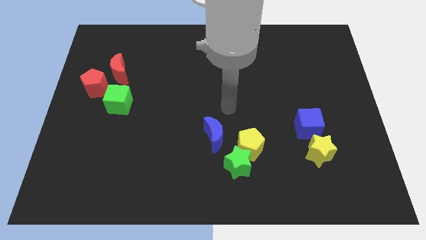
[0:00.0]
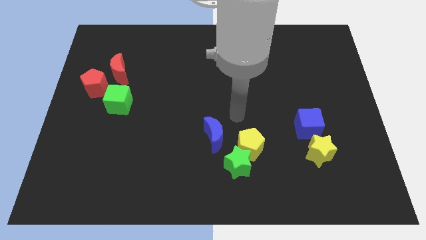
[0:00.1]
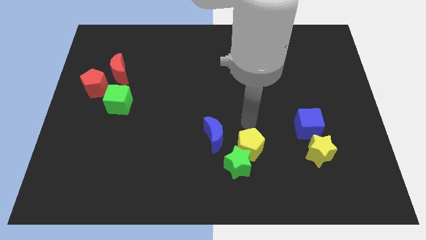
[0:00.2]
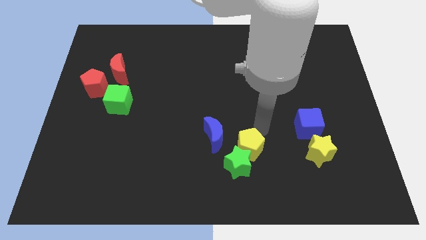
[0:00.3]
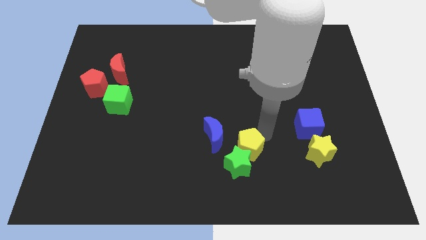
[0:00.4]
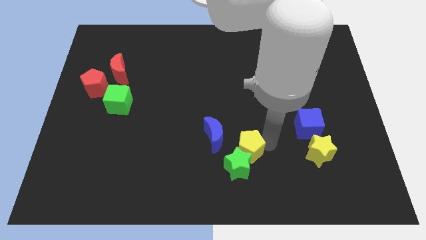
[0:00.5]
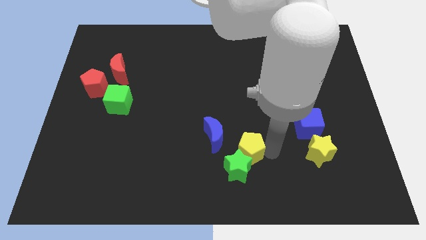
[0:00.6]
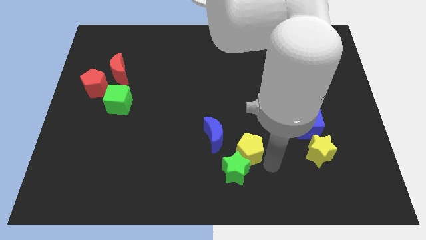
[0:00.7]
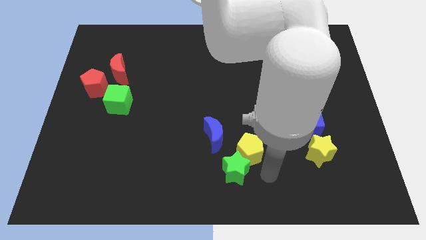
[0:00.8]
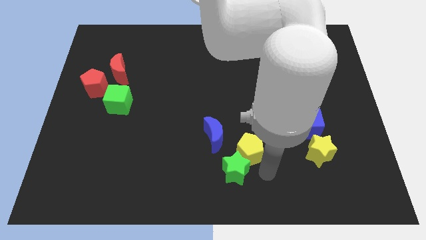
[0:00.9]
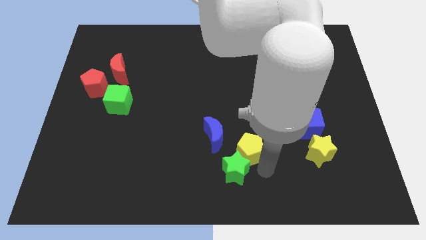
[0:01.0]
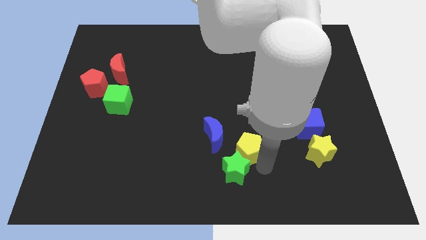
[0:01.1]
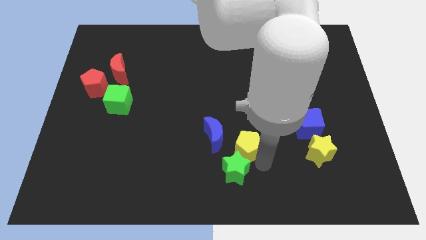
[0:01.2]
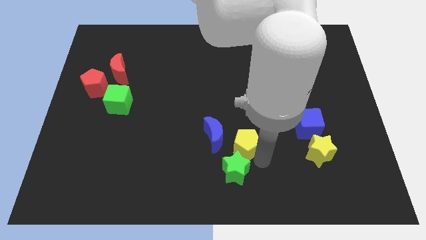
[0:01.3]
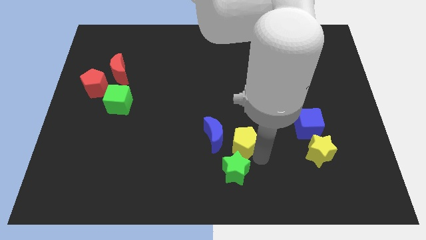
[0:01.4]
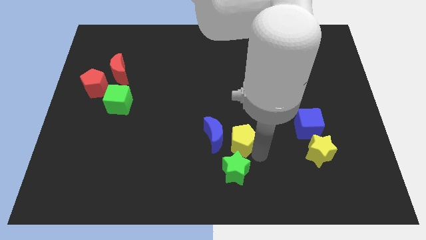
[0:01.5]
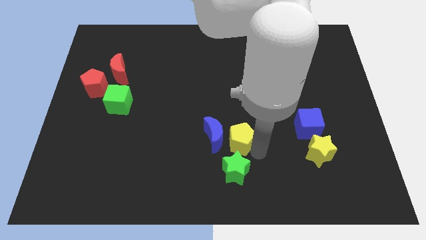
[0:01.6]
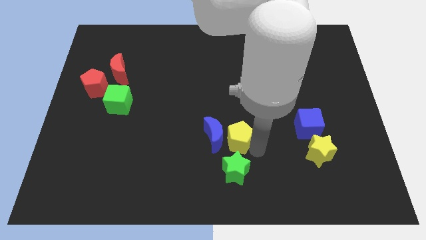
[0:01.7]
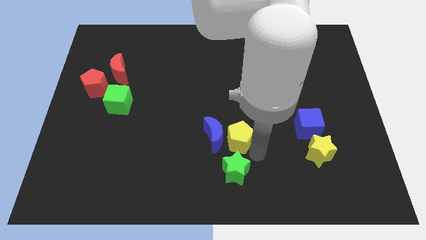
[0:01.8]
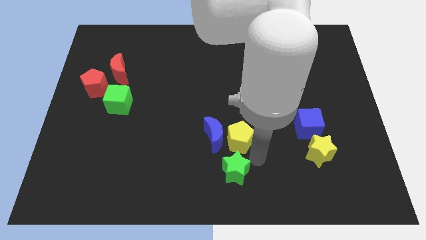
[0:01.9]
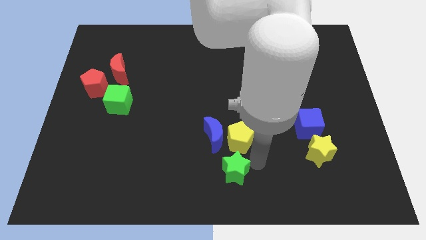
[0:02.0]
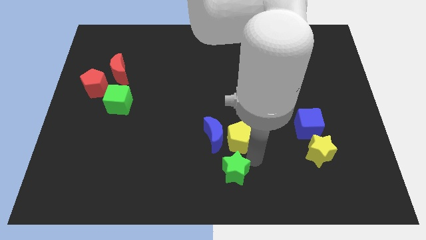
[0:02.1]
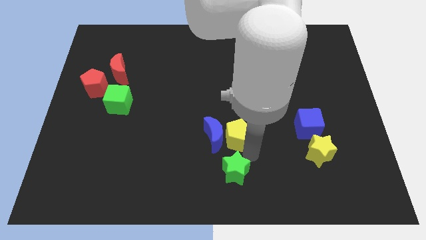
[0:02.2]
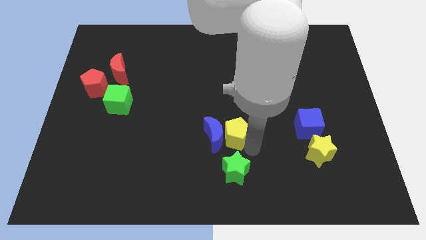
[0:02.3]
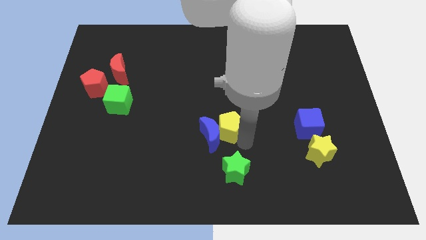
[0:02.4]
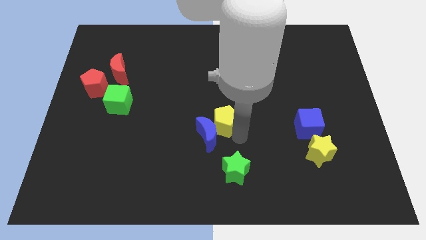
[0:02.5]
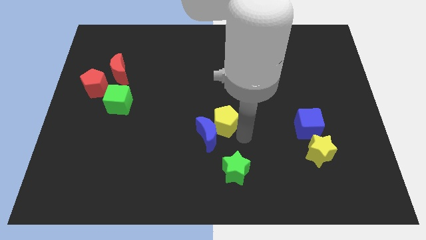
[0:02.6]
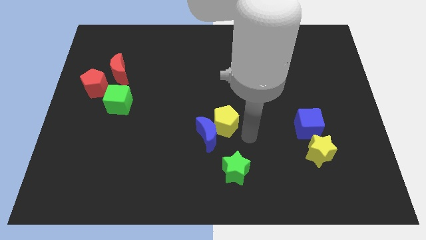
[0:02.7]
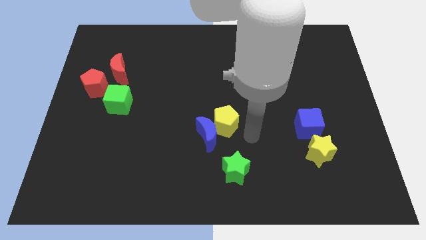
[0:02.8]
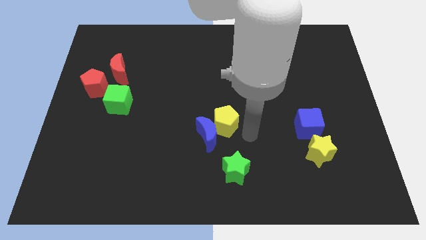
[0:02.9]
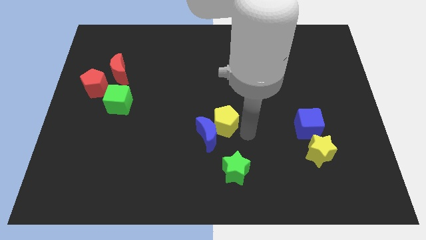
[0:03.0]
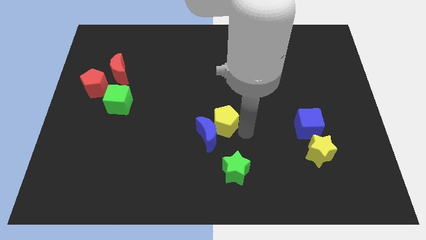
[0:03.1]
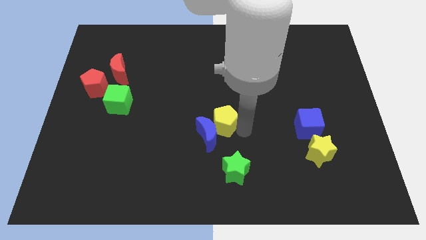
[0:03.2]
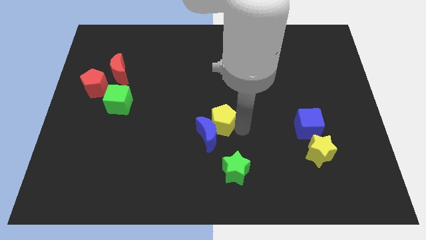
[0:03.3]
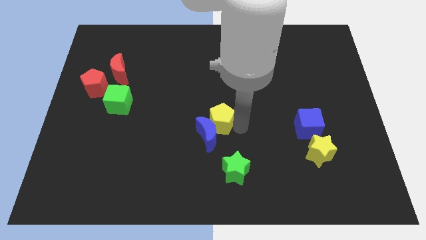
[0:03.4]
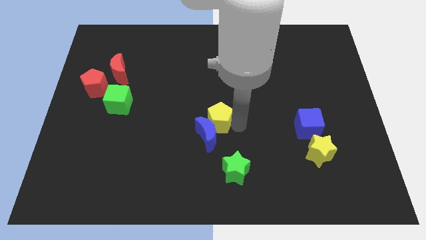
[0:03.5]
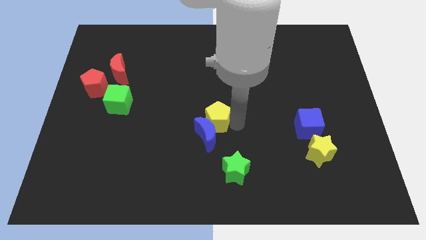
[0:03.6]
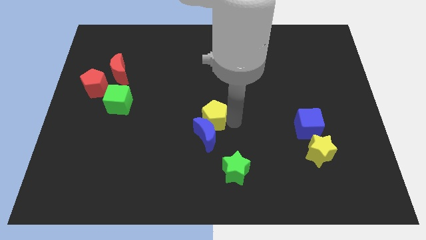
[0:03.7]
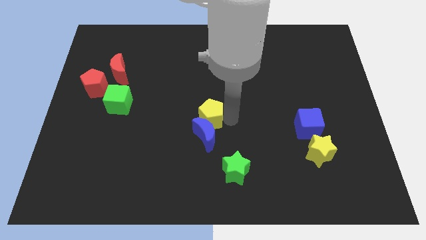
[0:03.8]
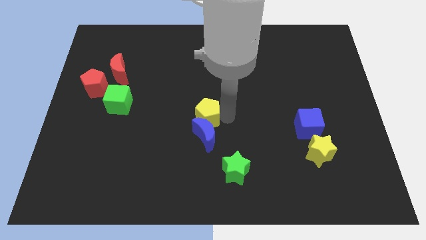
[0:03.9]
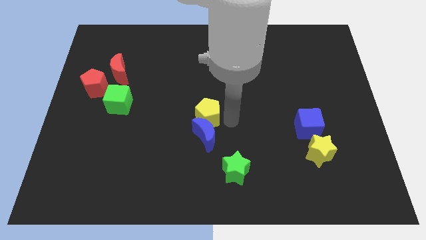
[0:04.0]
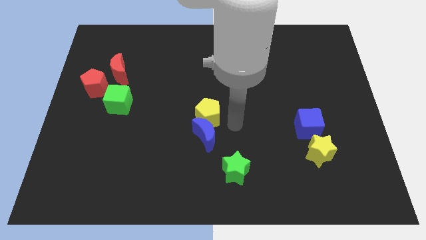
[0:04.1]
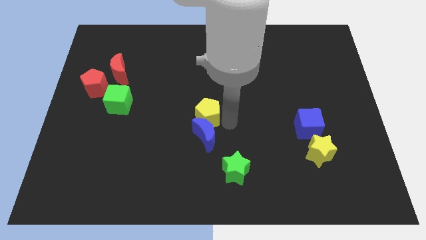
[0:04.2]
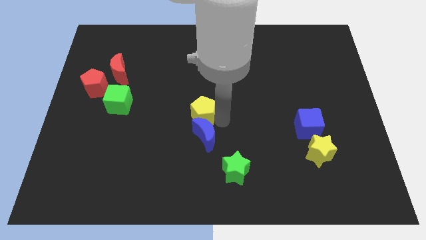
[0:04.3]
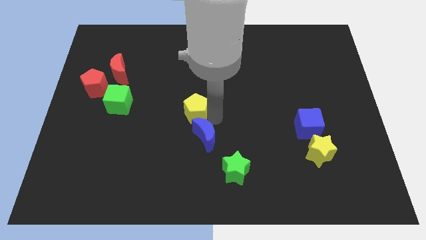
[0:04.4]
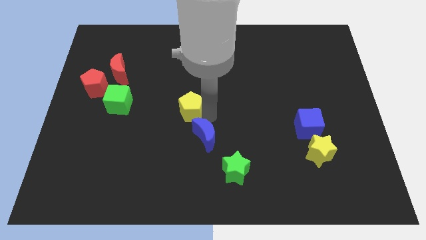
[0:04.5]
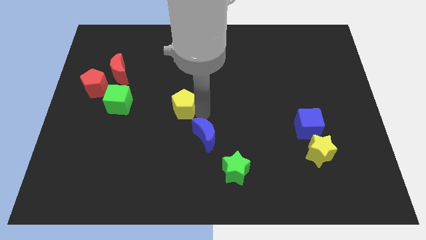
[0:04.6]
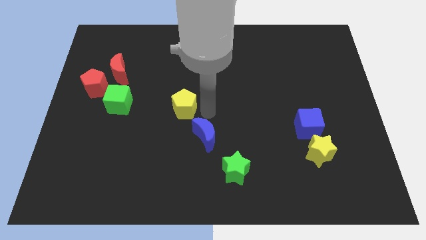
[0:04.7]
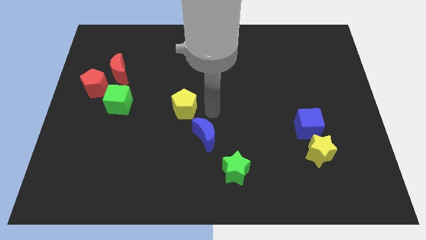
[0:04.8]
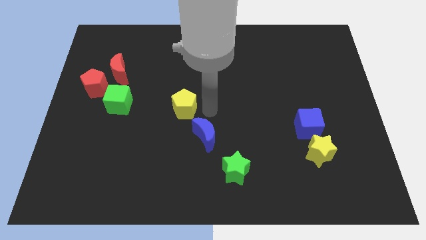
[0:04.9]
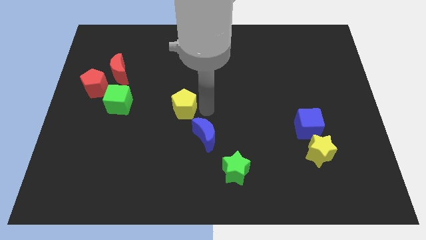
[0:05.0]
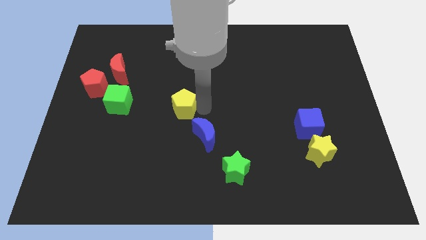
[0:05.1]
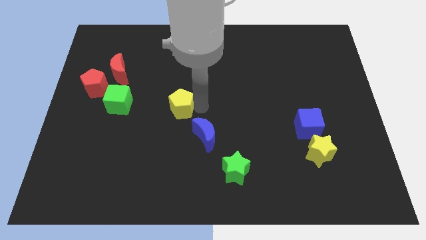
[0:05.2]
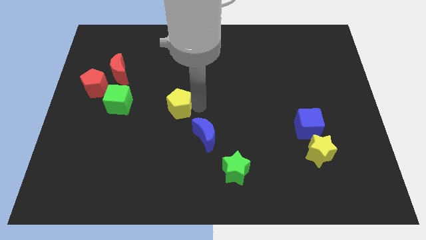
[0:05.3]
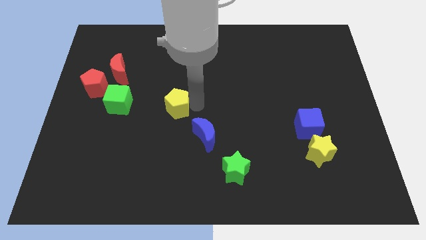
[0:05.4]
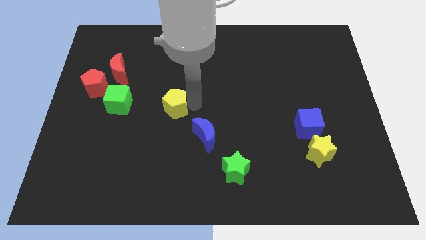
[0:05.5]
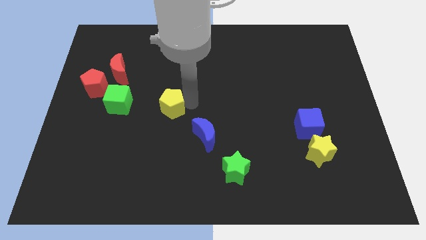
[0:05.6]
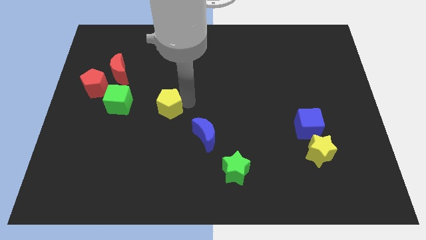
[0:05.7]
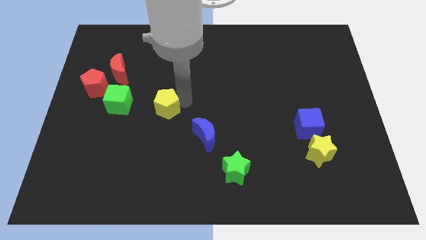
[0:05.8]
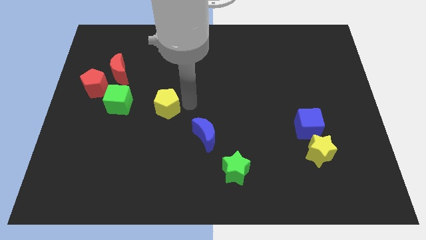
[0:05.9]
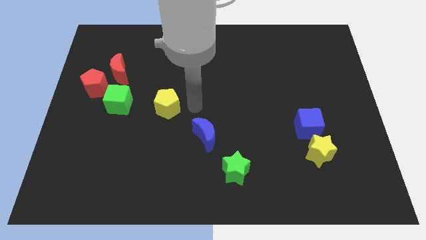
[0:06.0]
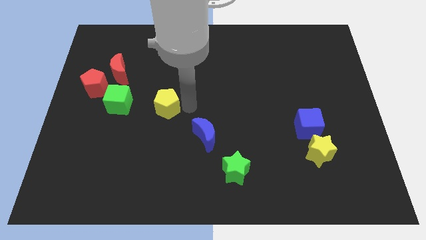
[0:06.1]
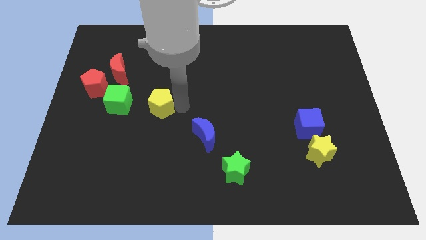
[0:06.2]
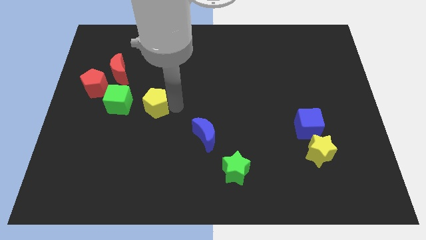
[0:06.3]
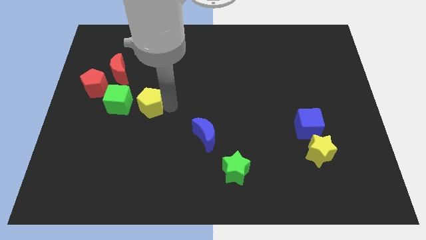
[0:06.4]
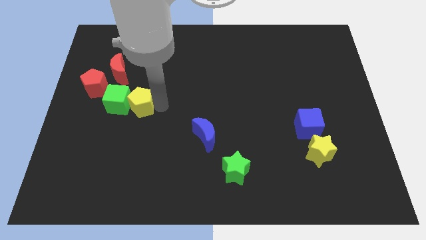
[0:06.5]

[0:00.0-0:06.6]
slide the yellow pentagon next to the green cube
